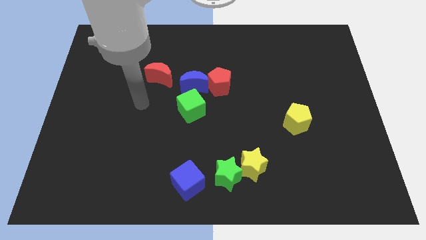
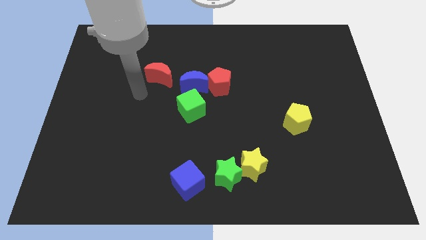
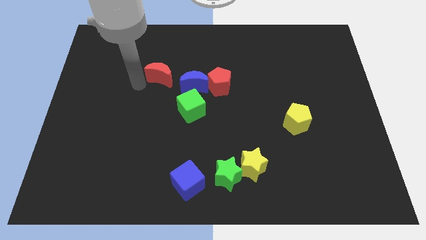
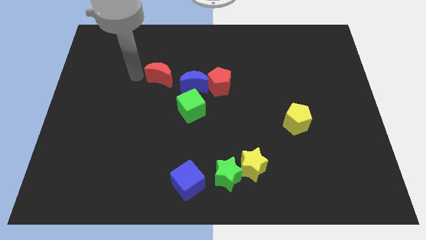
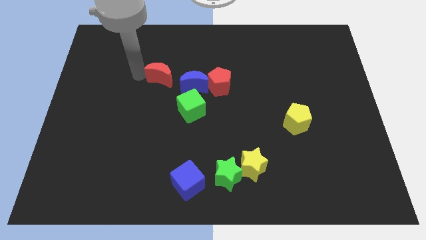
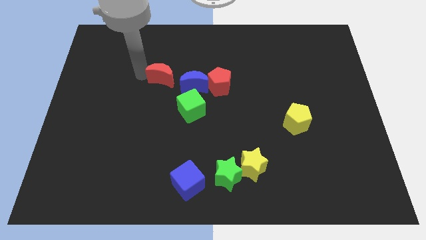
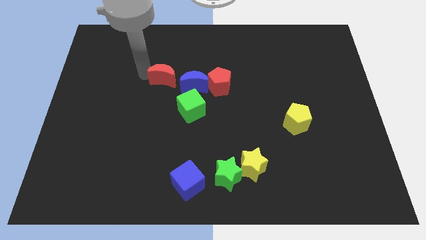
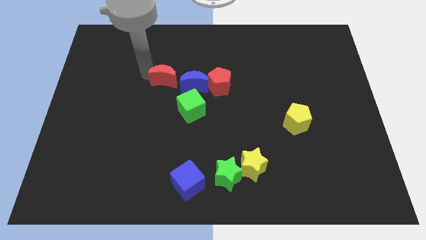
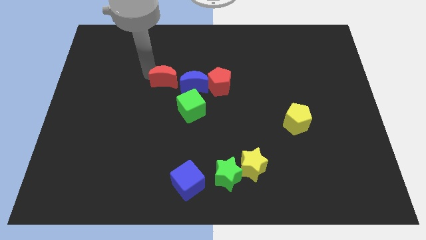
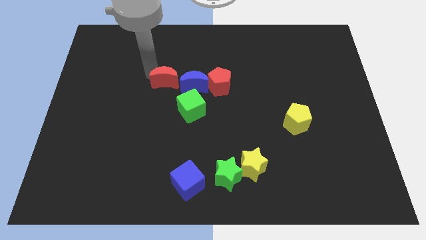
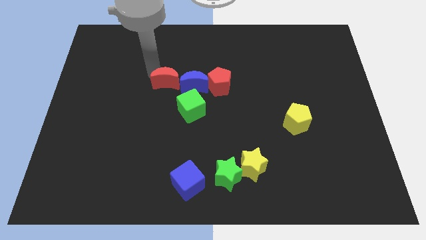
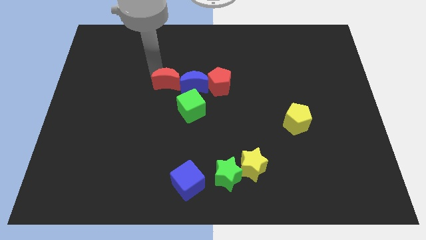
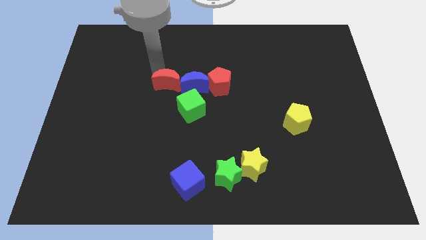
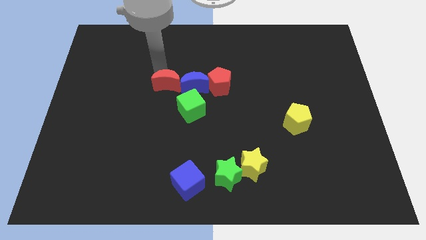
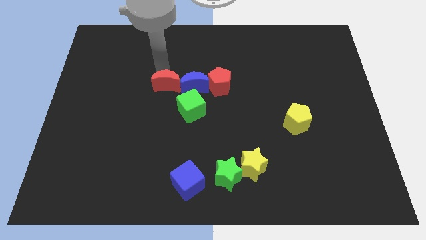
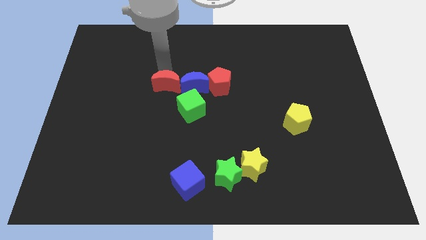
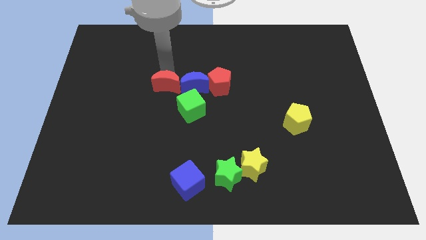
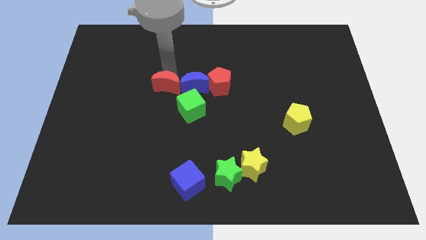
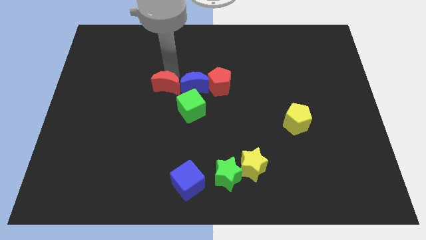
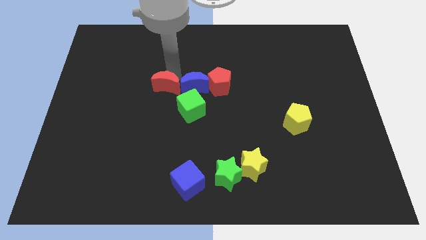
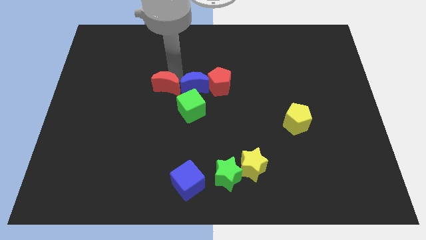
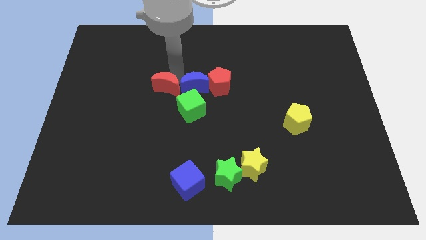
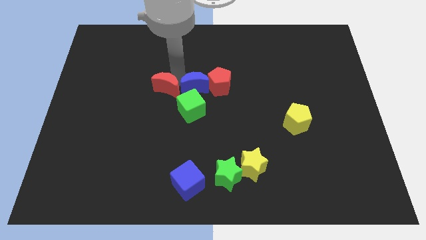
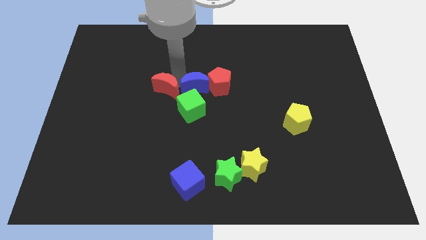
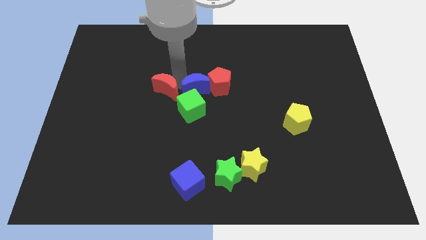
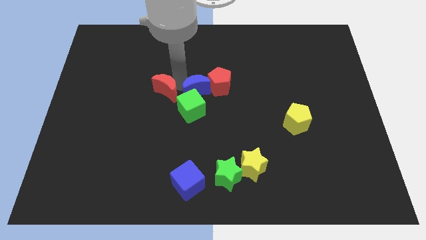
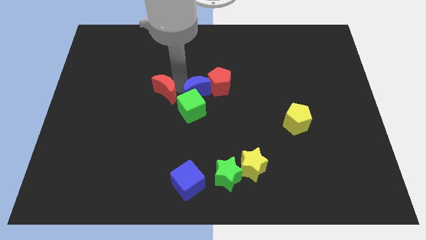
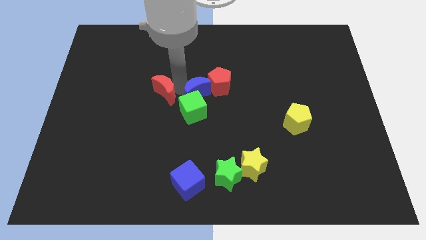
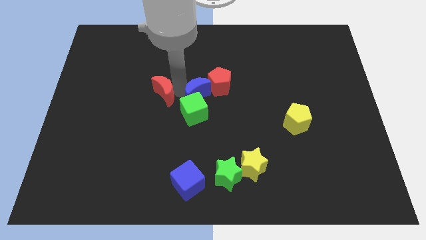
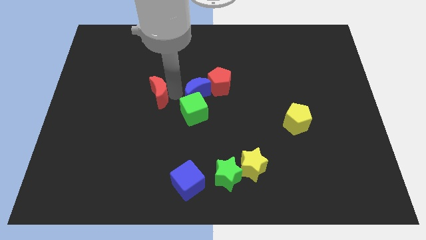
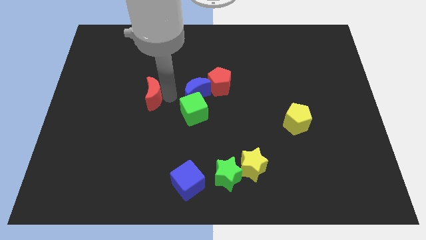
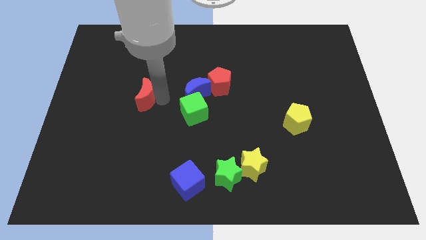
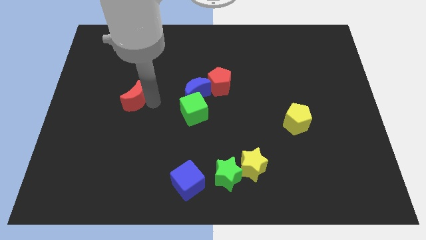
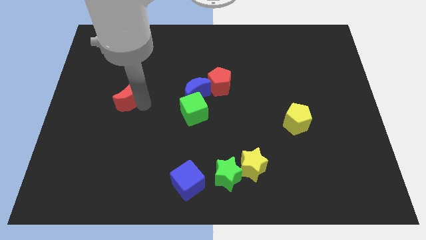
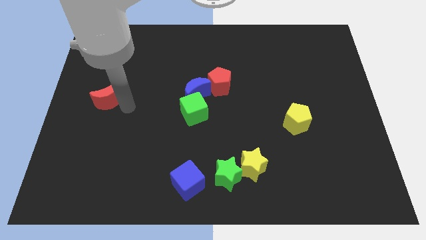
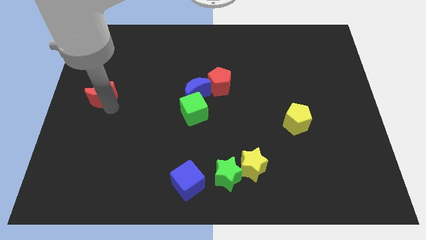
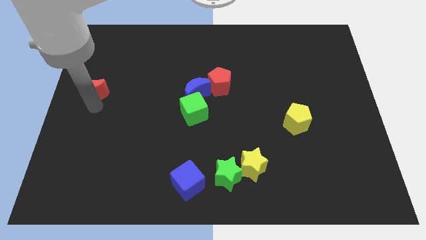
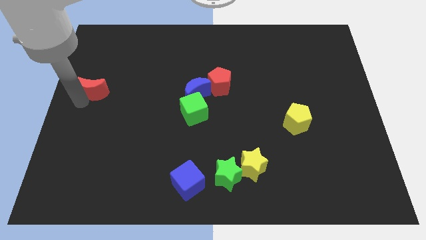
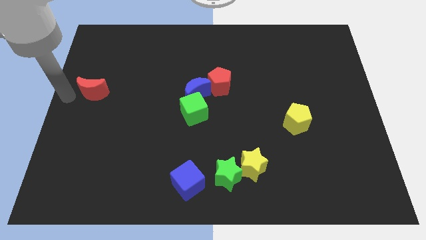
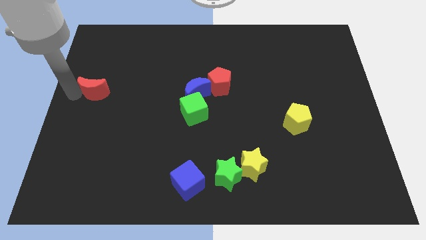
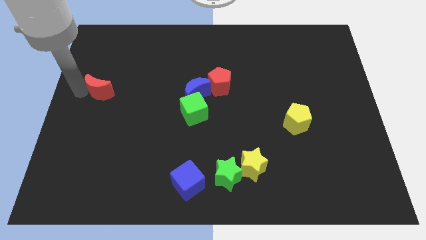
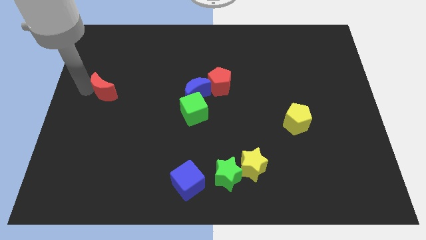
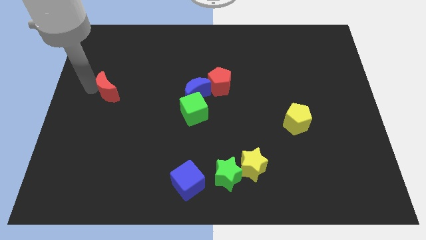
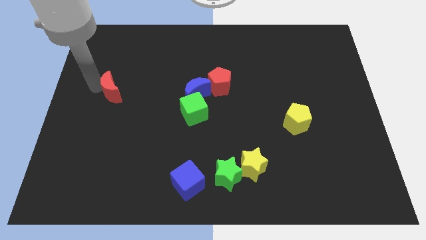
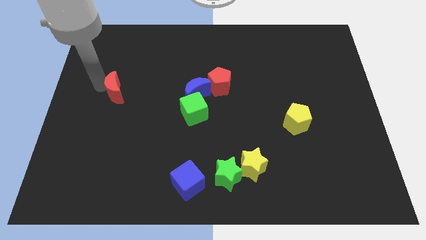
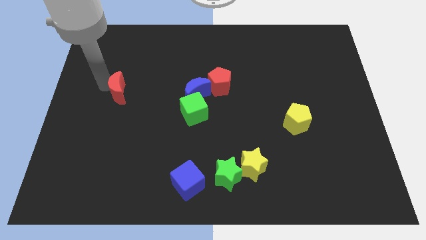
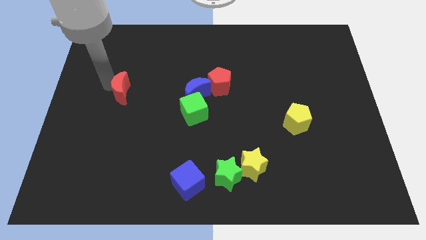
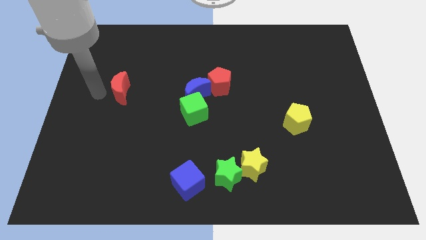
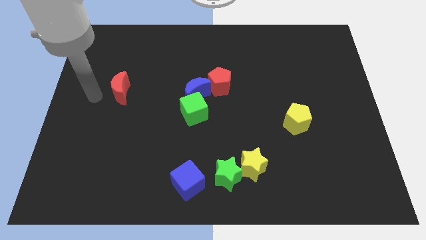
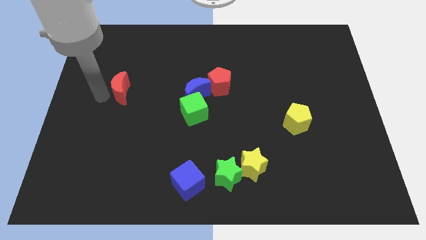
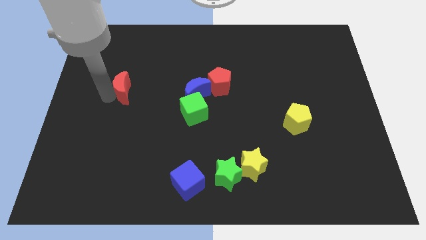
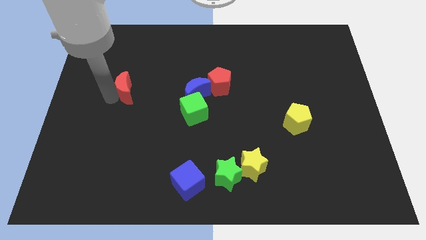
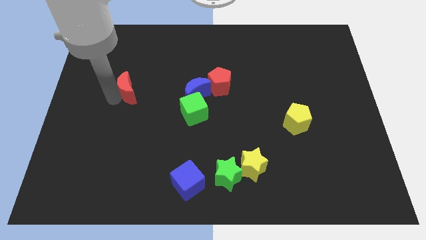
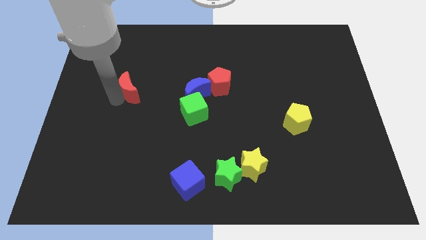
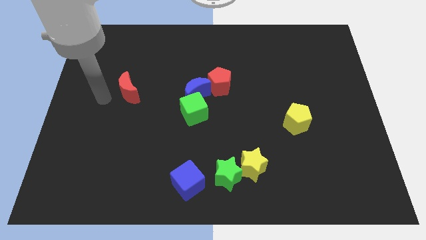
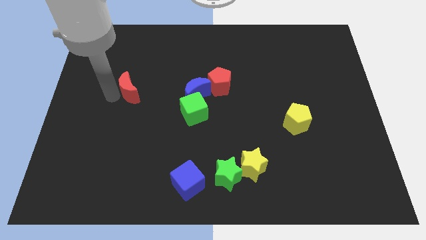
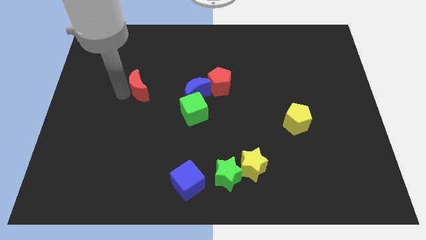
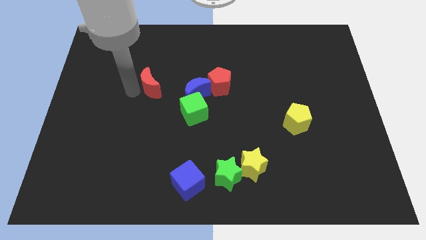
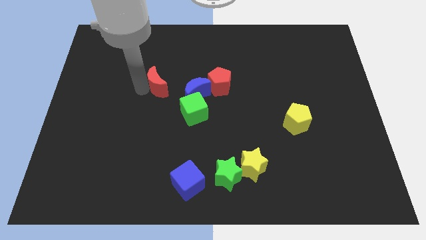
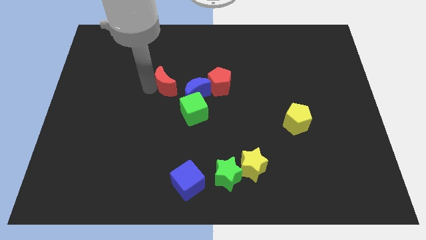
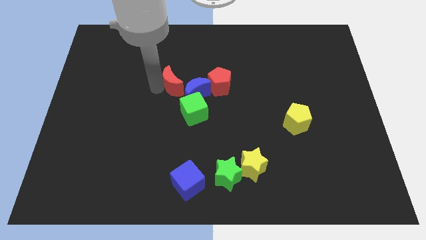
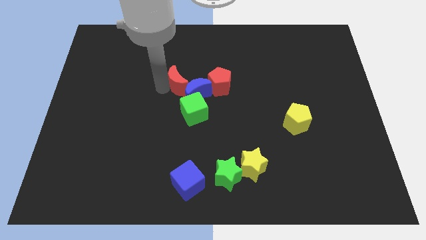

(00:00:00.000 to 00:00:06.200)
slide the red moon close to the blue moon
